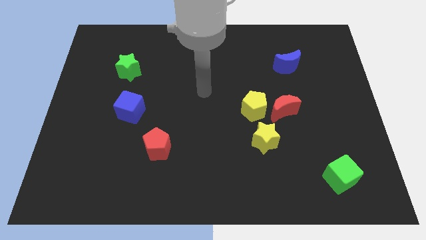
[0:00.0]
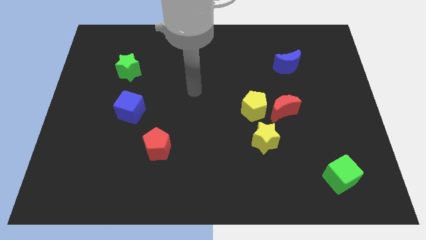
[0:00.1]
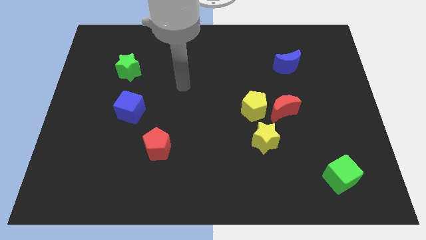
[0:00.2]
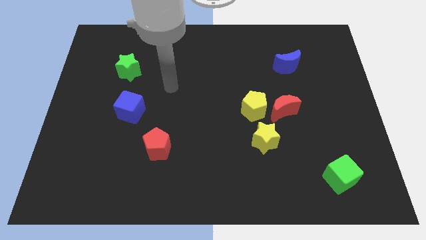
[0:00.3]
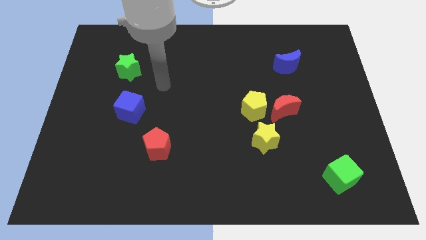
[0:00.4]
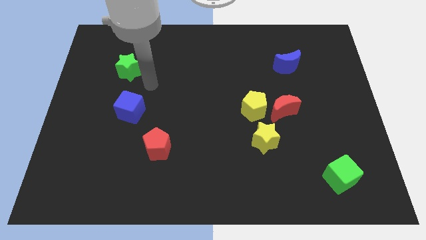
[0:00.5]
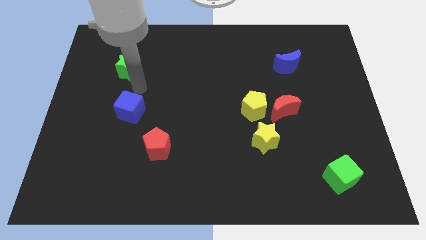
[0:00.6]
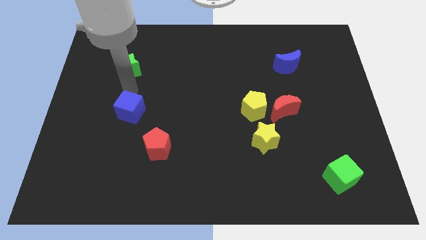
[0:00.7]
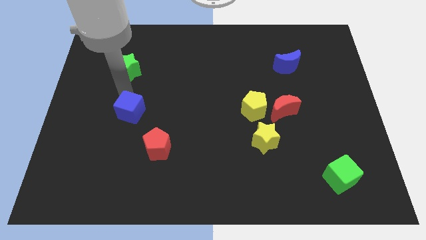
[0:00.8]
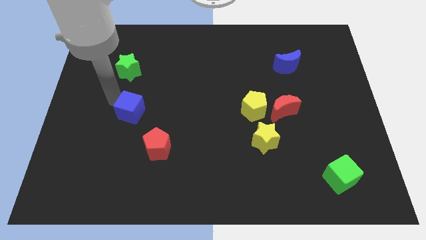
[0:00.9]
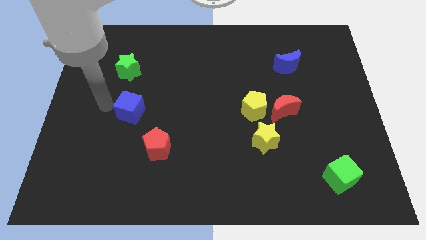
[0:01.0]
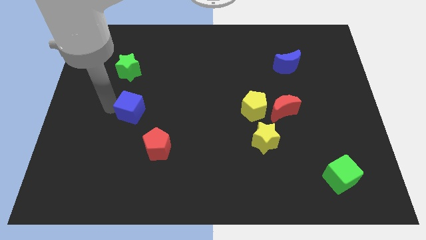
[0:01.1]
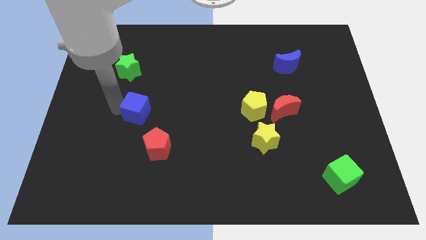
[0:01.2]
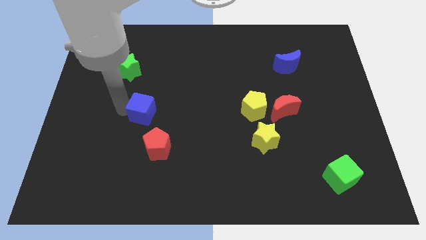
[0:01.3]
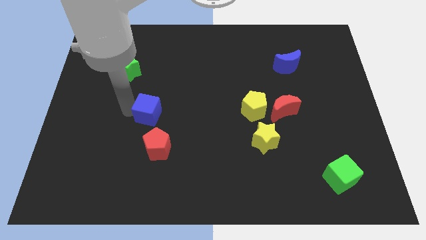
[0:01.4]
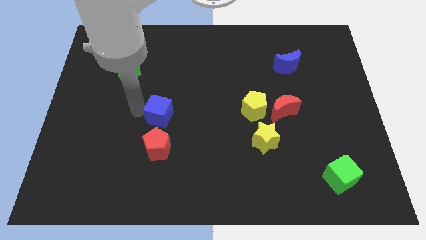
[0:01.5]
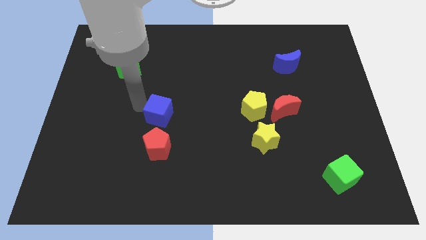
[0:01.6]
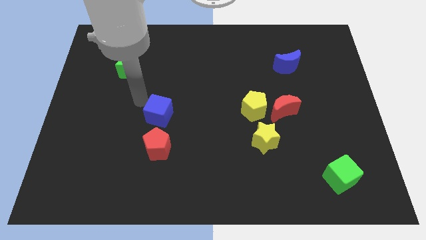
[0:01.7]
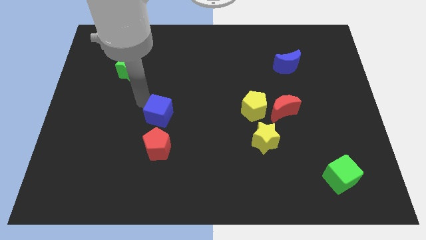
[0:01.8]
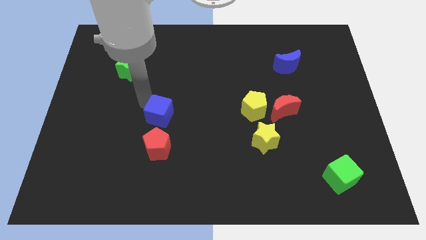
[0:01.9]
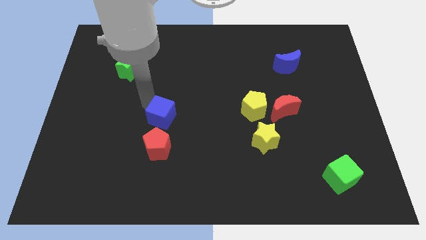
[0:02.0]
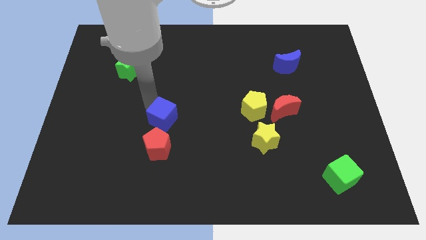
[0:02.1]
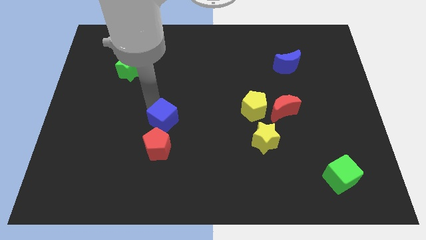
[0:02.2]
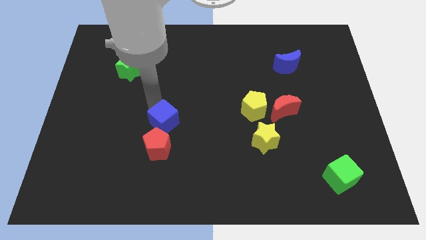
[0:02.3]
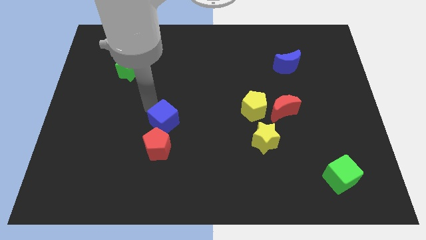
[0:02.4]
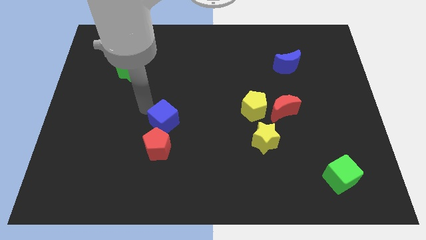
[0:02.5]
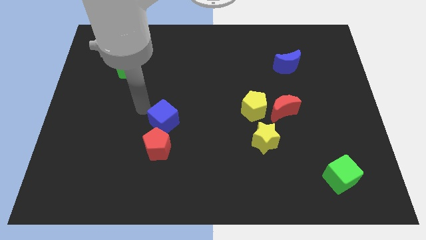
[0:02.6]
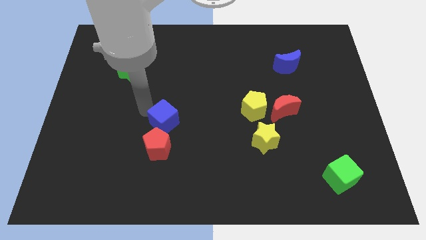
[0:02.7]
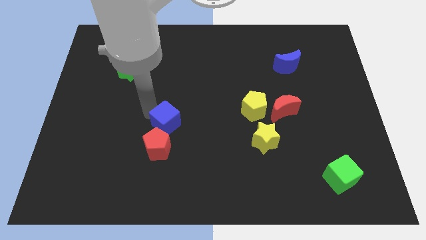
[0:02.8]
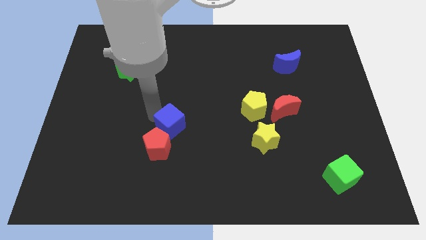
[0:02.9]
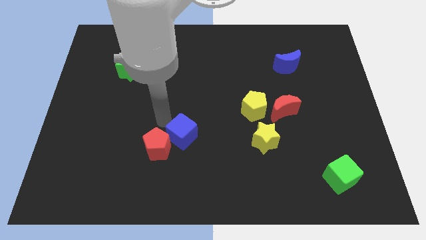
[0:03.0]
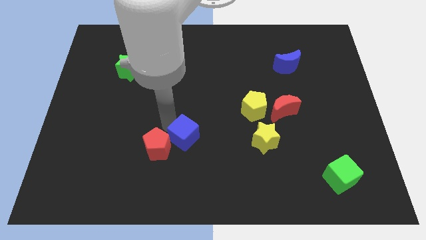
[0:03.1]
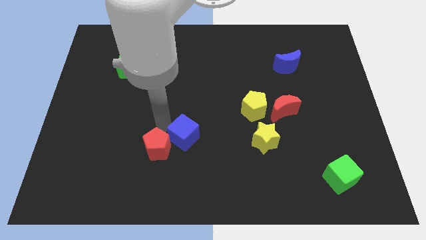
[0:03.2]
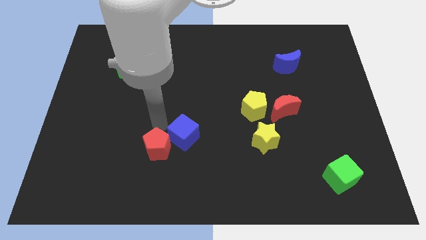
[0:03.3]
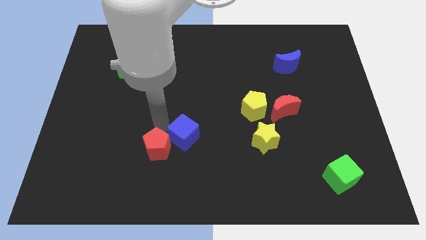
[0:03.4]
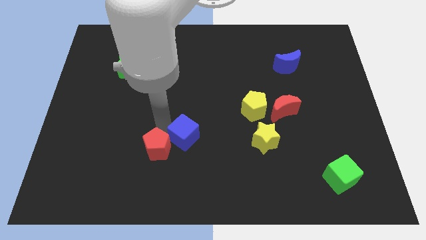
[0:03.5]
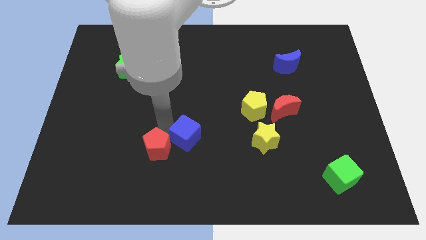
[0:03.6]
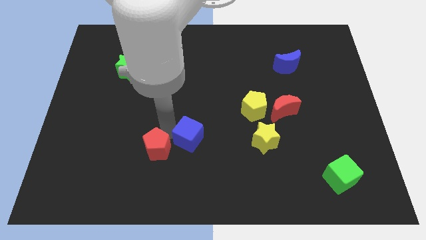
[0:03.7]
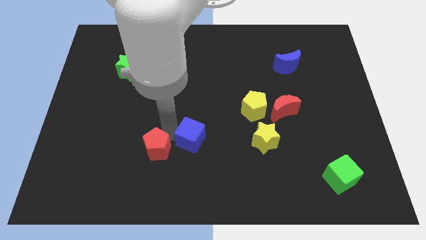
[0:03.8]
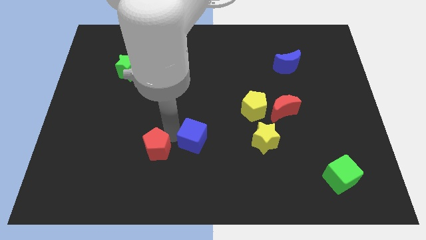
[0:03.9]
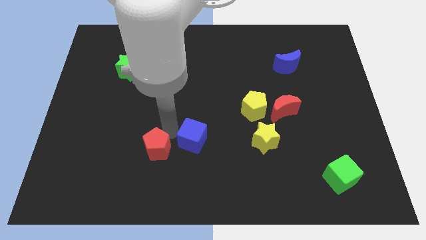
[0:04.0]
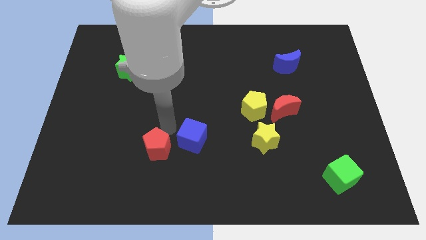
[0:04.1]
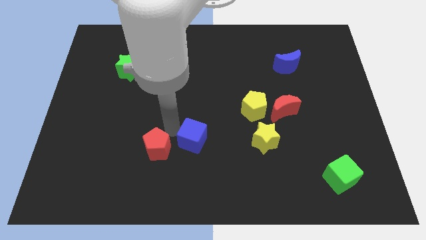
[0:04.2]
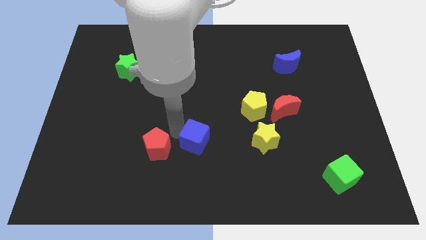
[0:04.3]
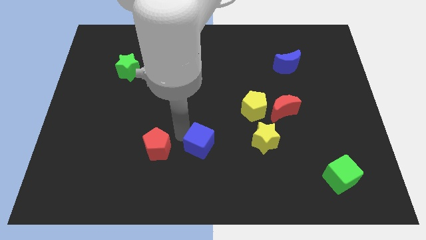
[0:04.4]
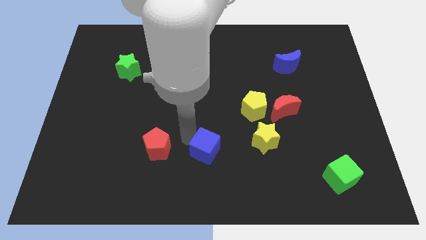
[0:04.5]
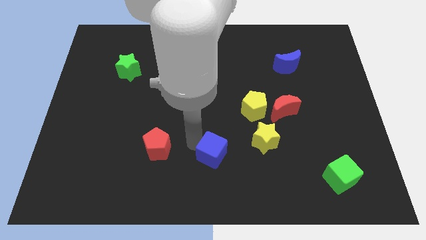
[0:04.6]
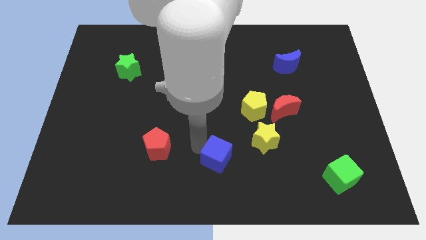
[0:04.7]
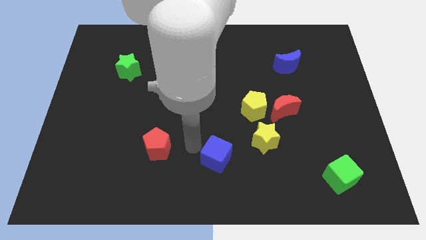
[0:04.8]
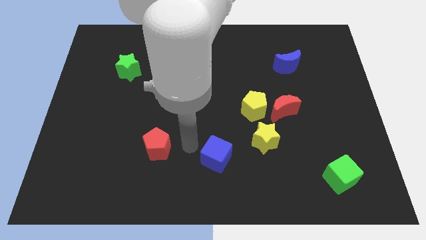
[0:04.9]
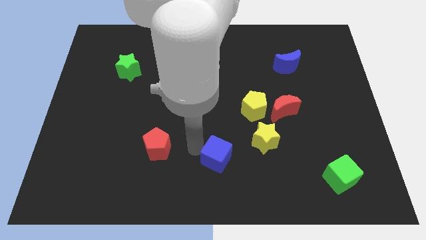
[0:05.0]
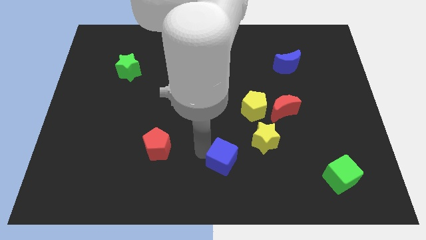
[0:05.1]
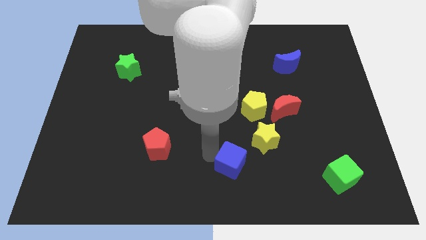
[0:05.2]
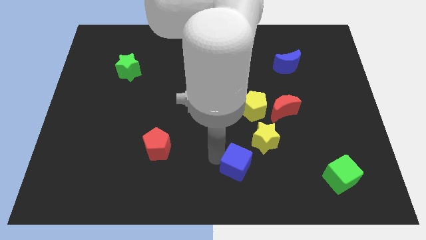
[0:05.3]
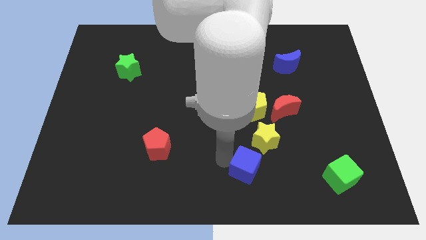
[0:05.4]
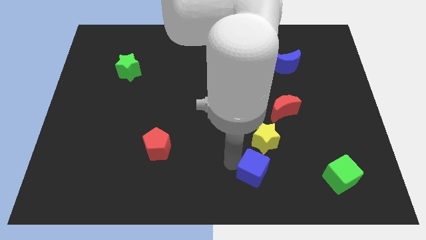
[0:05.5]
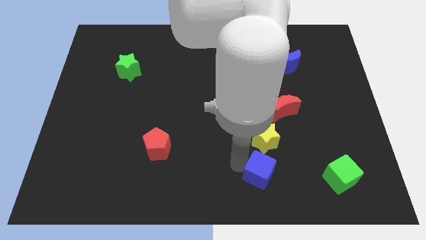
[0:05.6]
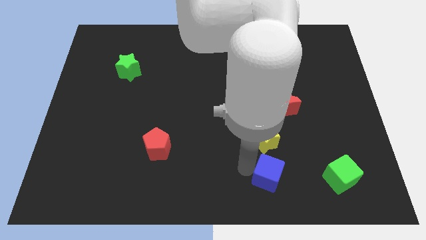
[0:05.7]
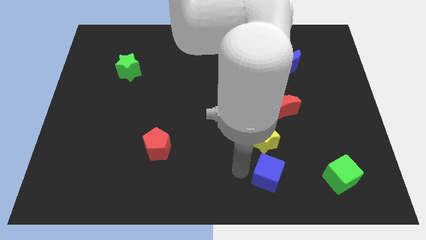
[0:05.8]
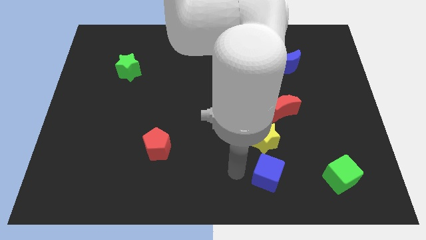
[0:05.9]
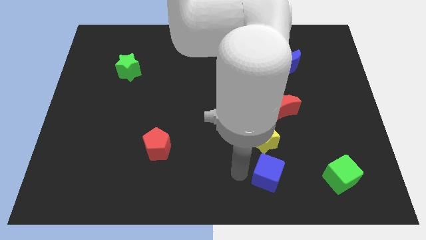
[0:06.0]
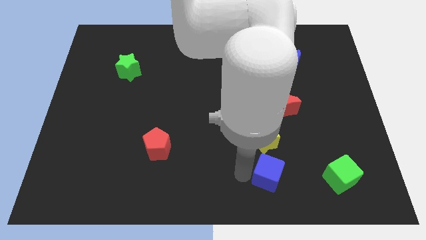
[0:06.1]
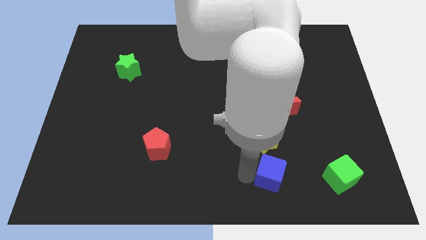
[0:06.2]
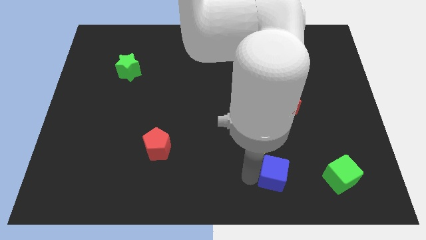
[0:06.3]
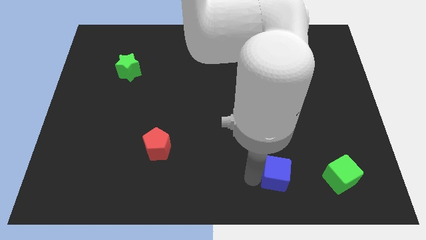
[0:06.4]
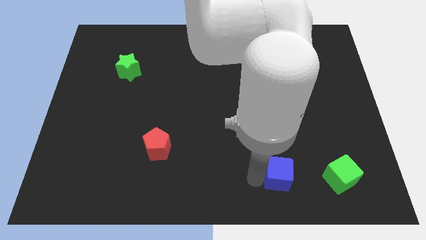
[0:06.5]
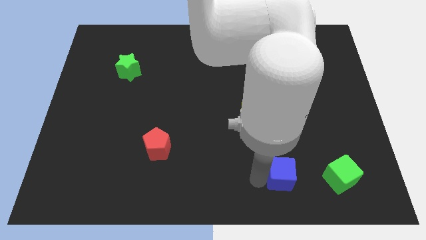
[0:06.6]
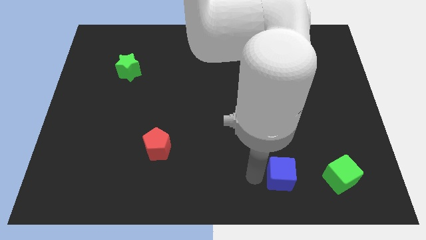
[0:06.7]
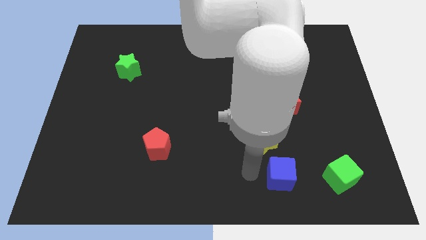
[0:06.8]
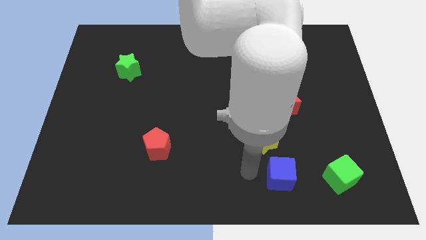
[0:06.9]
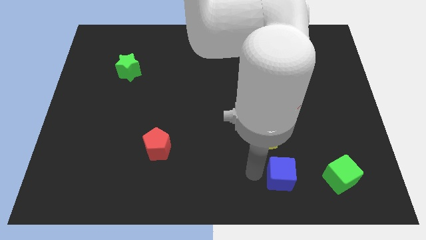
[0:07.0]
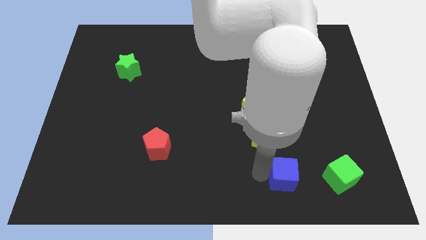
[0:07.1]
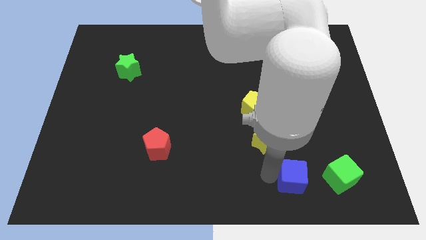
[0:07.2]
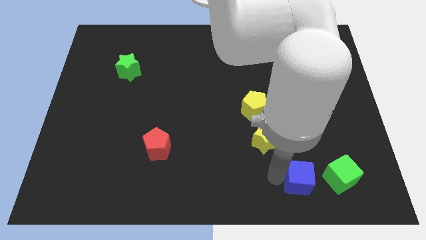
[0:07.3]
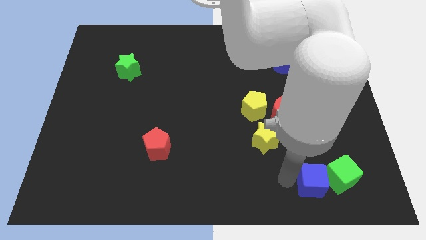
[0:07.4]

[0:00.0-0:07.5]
move the blue cube to the green cube
